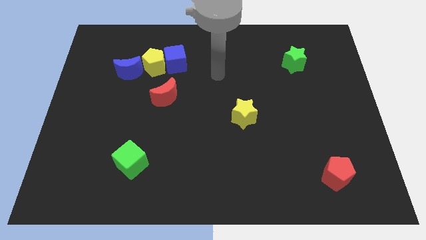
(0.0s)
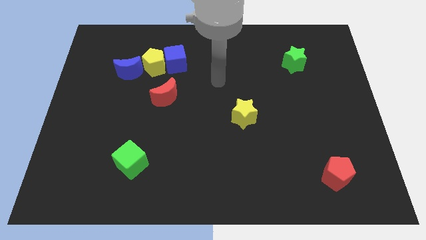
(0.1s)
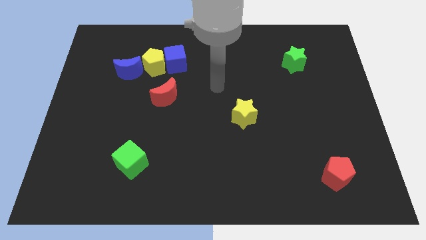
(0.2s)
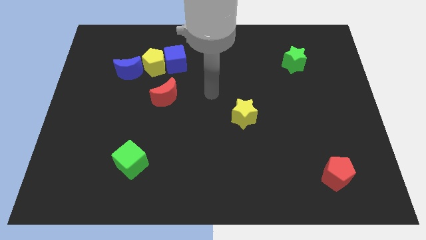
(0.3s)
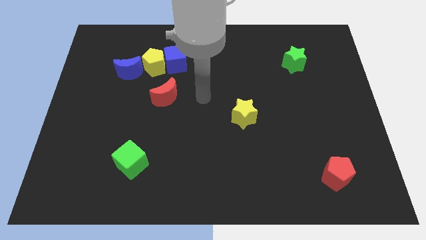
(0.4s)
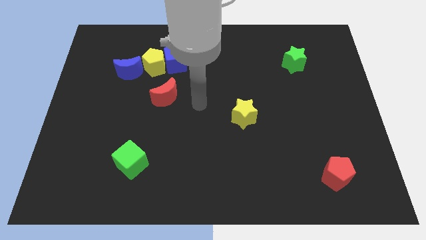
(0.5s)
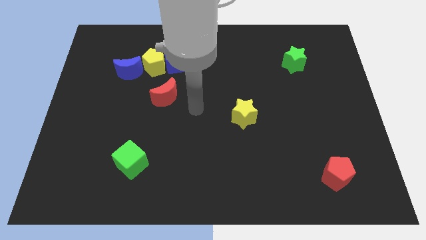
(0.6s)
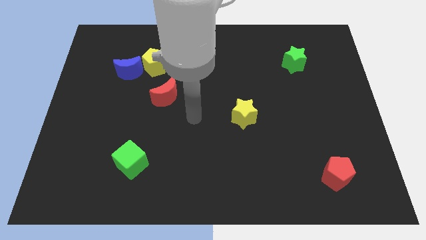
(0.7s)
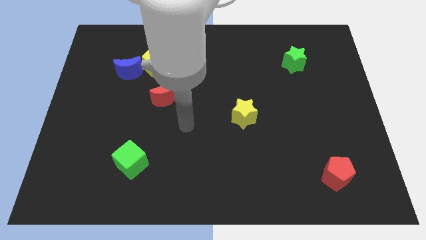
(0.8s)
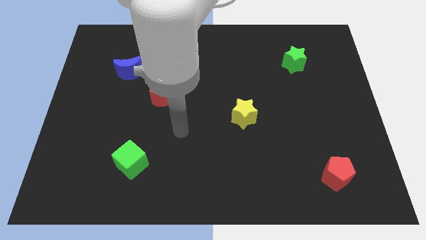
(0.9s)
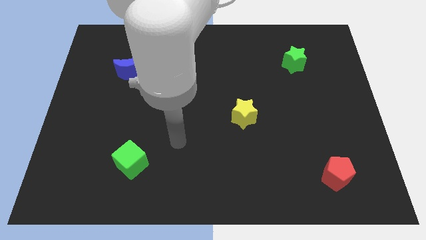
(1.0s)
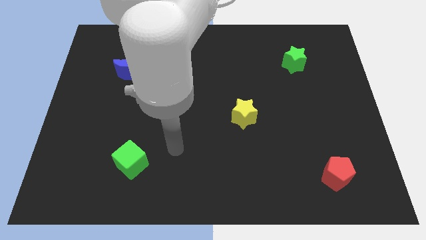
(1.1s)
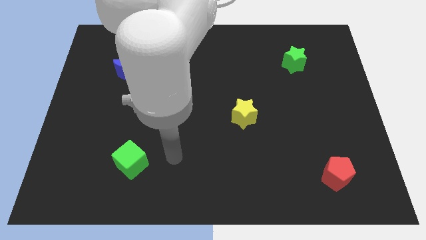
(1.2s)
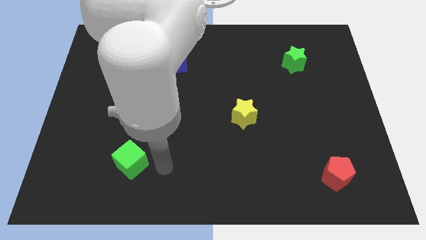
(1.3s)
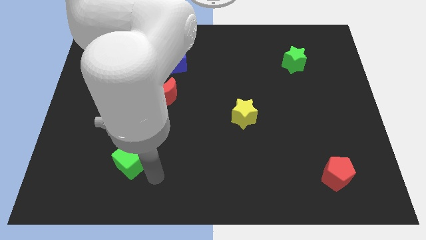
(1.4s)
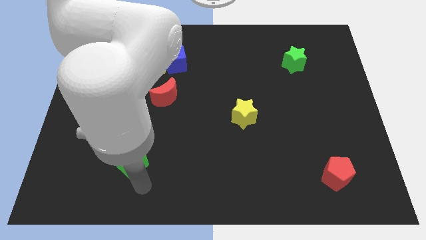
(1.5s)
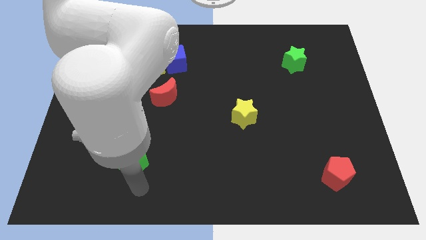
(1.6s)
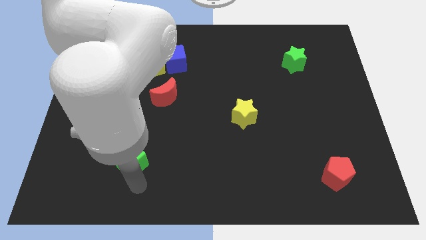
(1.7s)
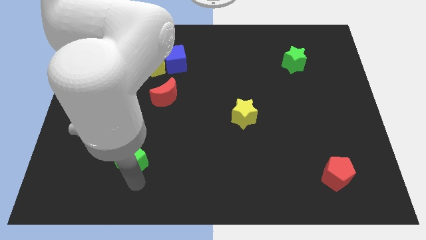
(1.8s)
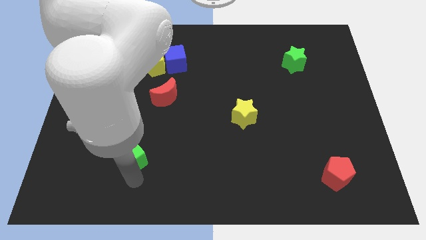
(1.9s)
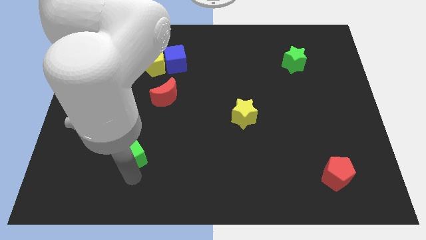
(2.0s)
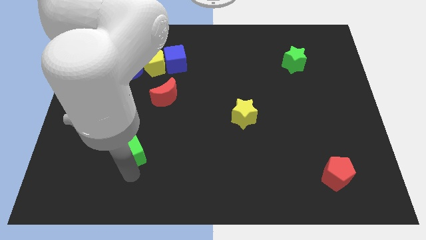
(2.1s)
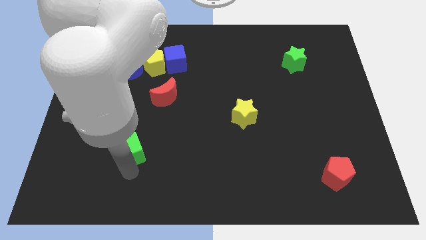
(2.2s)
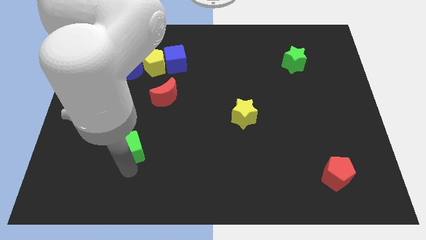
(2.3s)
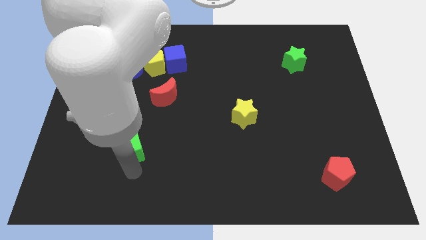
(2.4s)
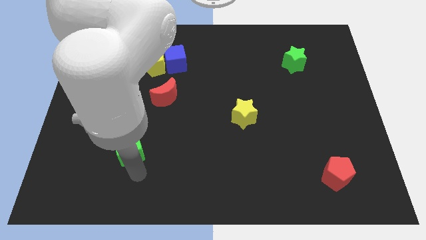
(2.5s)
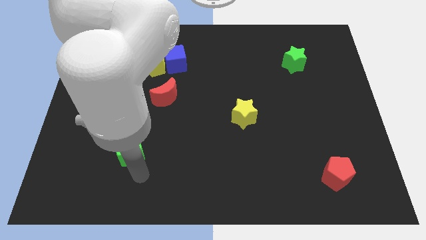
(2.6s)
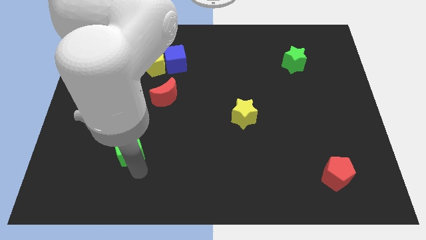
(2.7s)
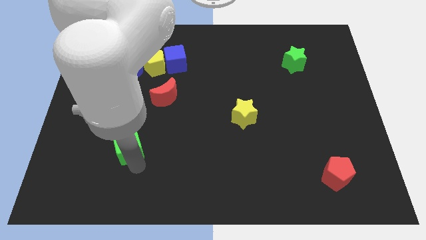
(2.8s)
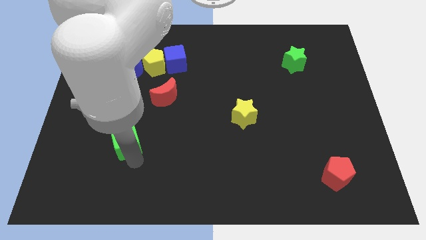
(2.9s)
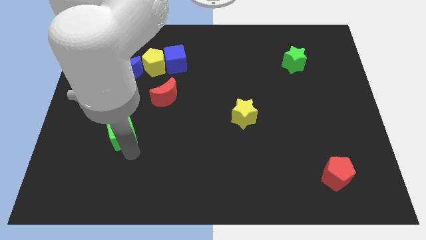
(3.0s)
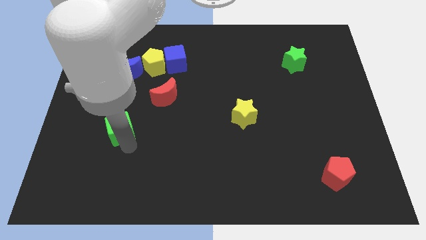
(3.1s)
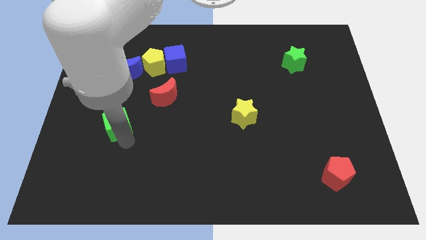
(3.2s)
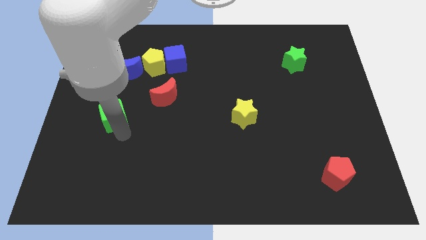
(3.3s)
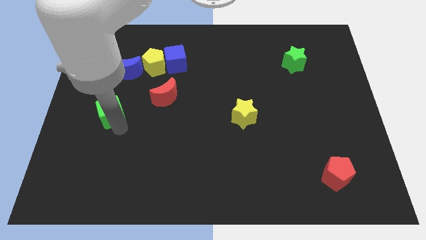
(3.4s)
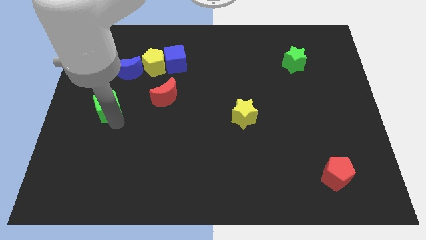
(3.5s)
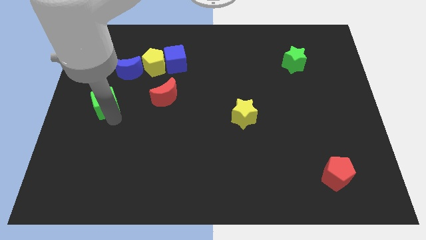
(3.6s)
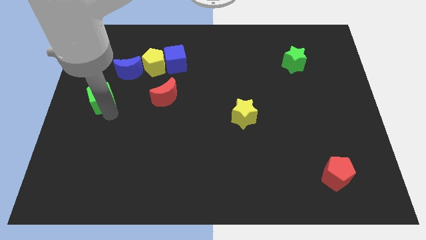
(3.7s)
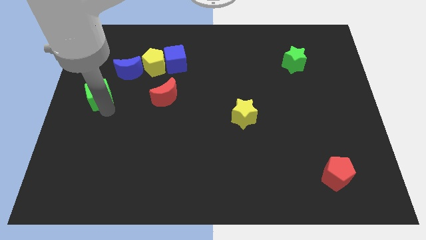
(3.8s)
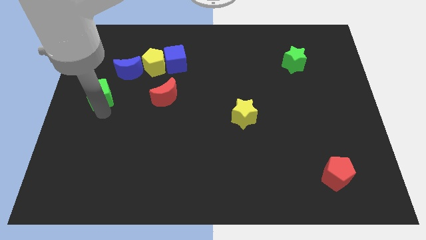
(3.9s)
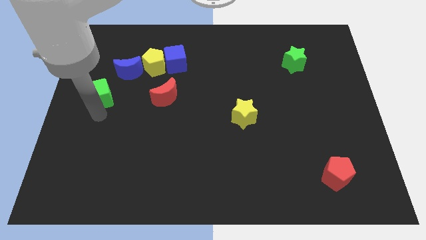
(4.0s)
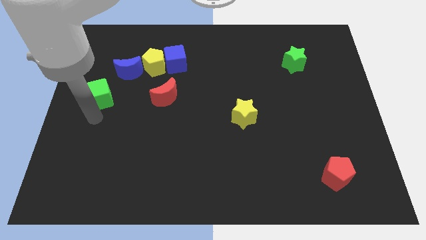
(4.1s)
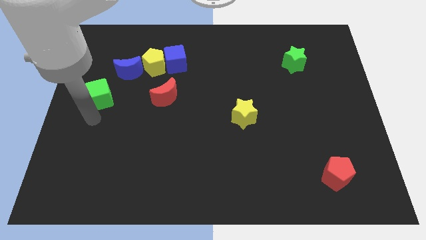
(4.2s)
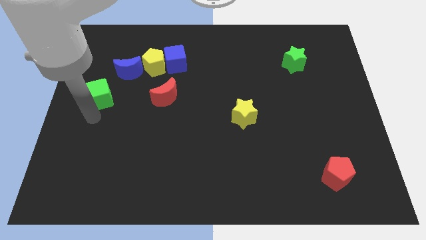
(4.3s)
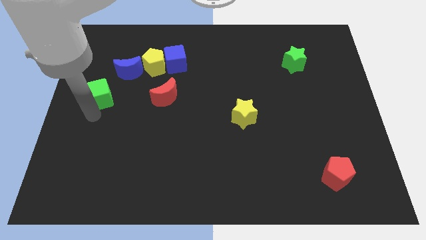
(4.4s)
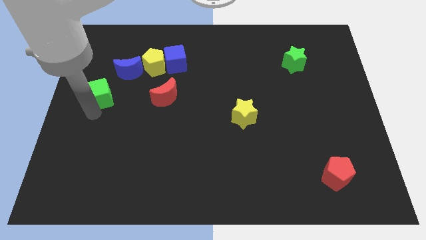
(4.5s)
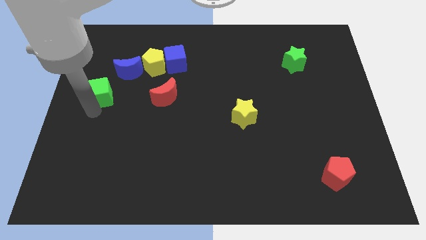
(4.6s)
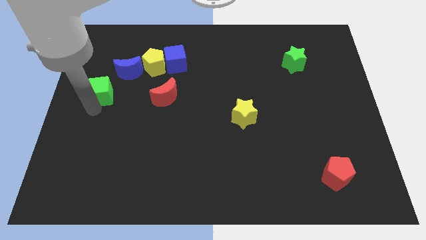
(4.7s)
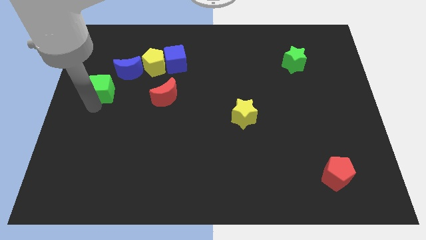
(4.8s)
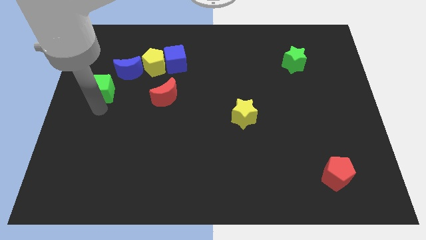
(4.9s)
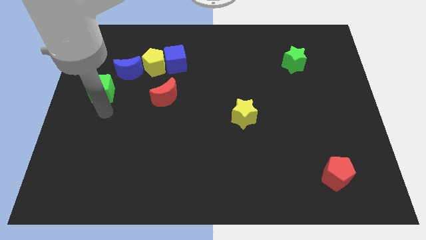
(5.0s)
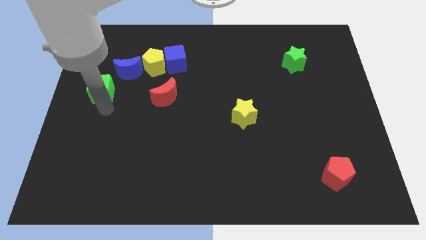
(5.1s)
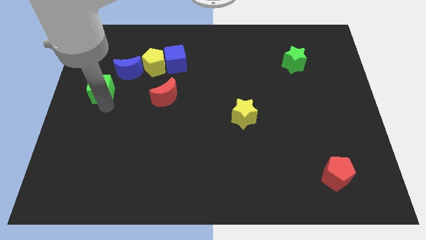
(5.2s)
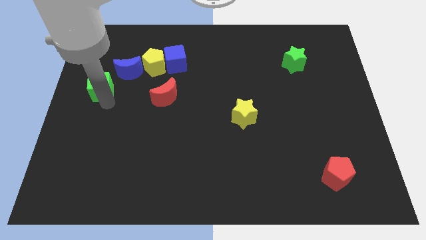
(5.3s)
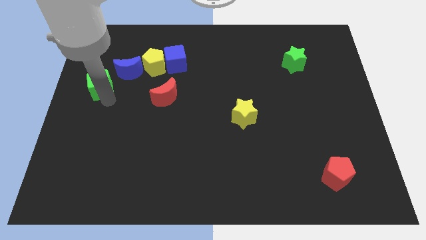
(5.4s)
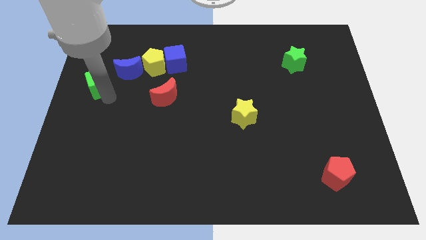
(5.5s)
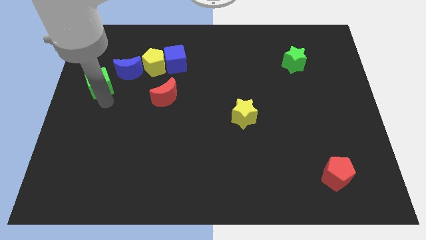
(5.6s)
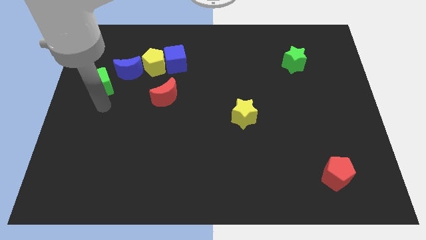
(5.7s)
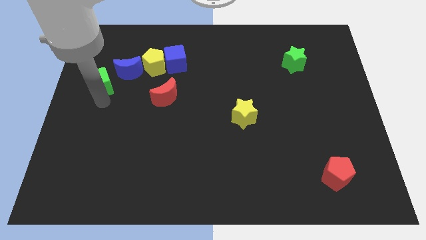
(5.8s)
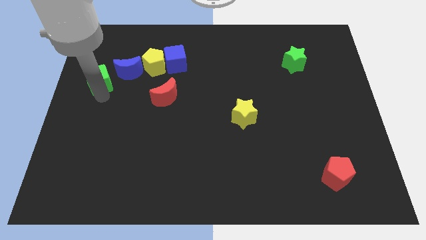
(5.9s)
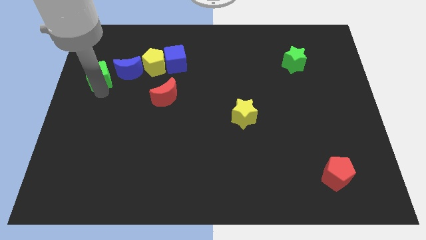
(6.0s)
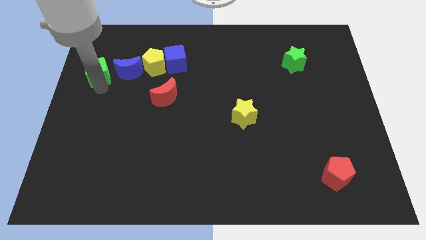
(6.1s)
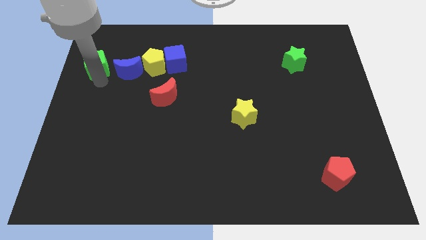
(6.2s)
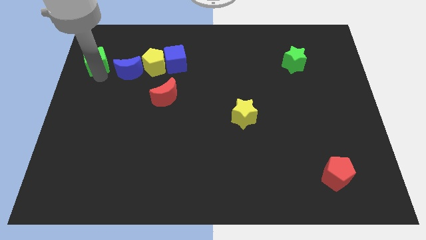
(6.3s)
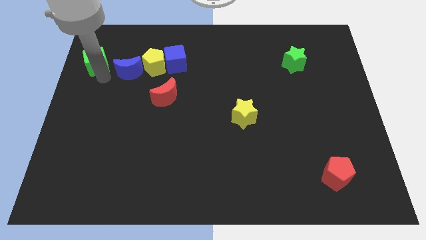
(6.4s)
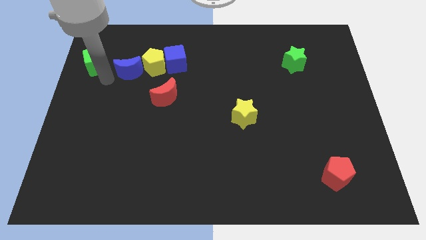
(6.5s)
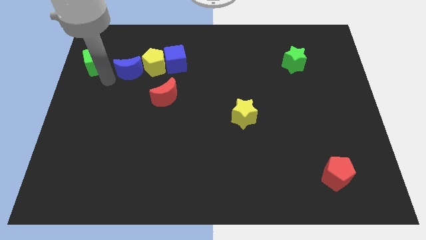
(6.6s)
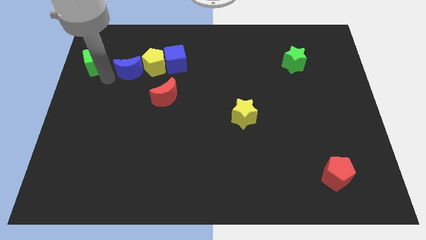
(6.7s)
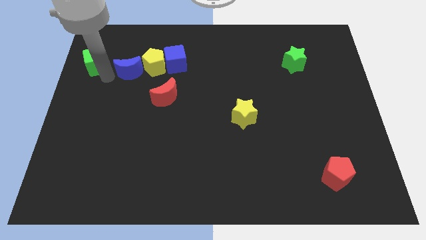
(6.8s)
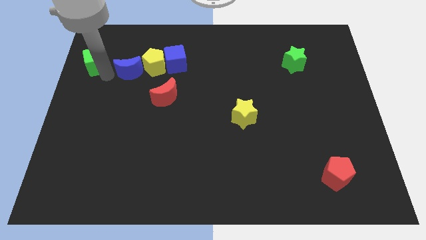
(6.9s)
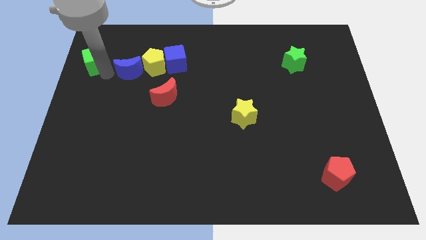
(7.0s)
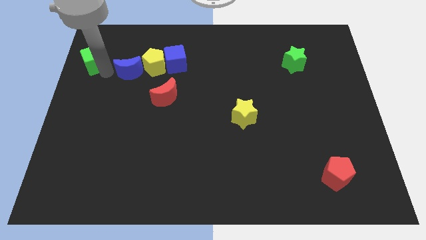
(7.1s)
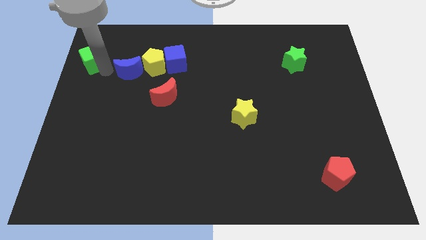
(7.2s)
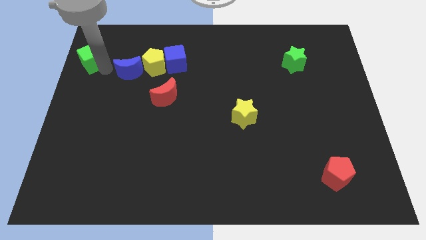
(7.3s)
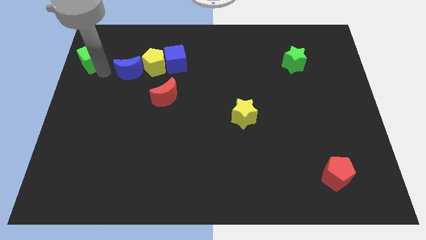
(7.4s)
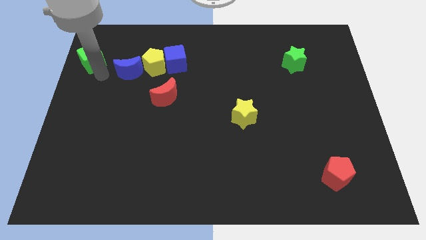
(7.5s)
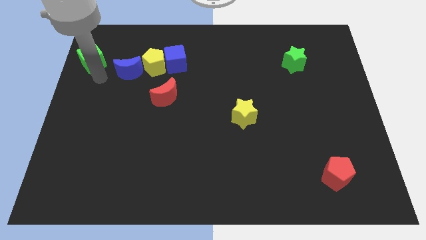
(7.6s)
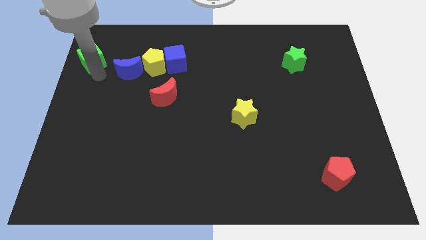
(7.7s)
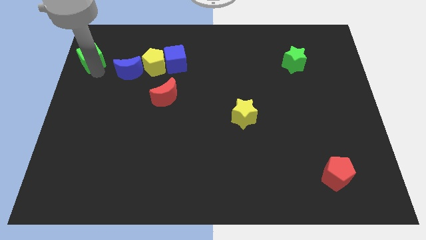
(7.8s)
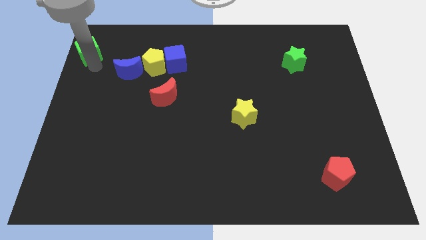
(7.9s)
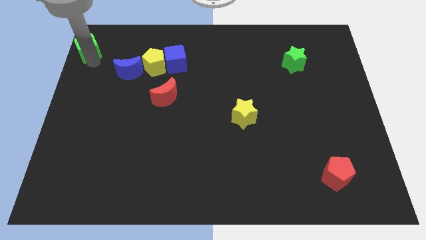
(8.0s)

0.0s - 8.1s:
put the green cube to the top left
